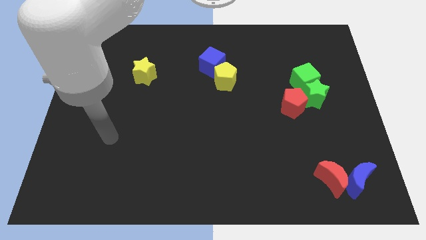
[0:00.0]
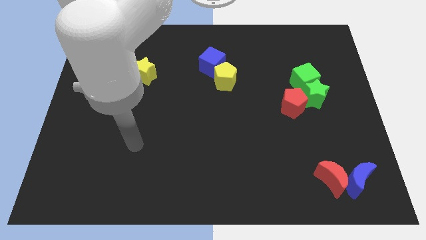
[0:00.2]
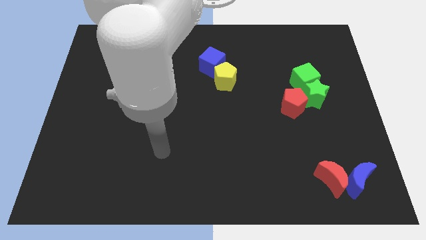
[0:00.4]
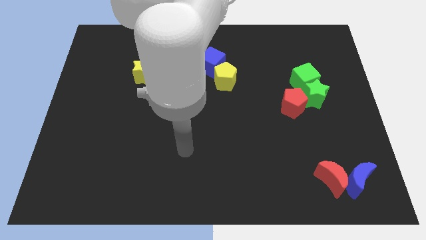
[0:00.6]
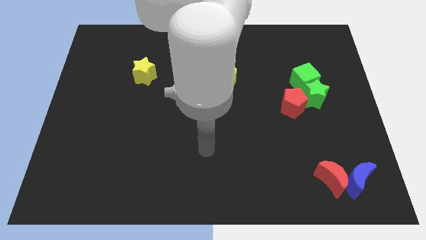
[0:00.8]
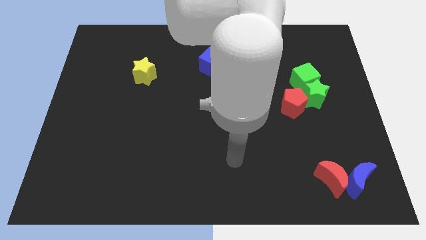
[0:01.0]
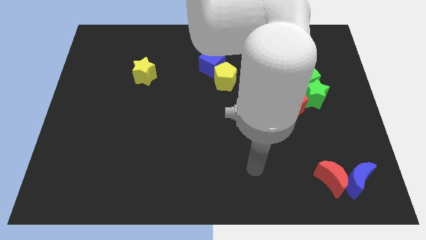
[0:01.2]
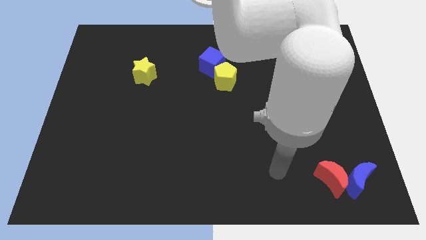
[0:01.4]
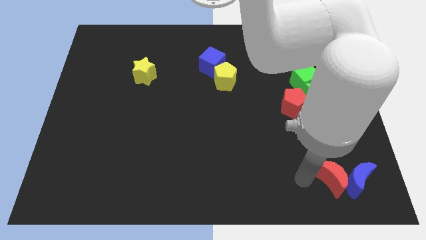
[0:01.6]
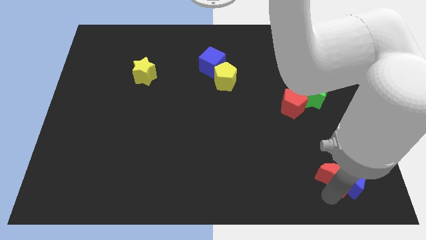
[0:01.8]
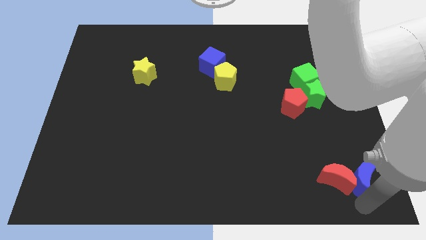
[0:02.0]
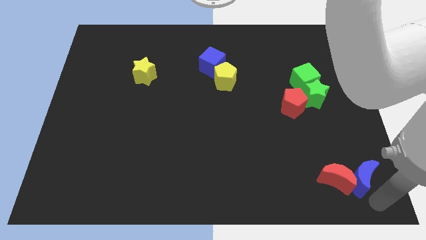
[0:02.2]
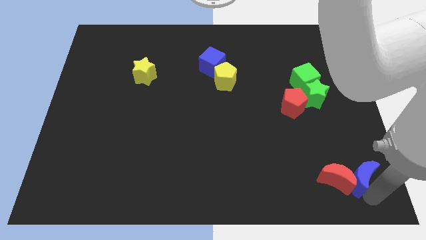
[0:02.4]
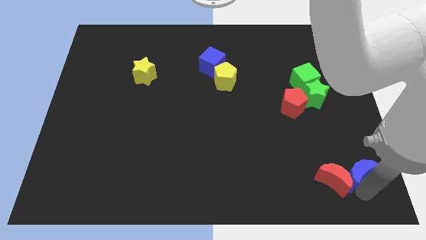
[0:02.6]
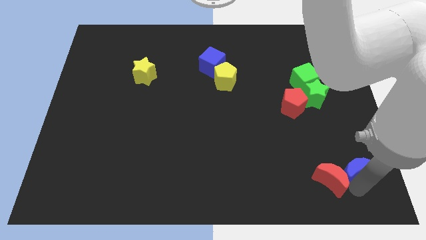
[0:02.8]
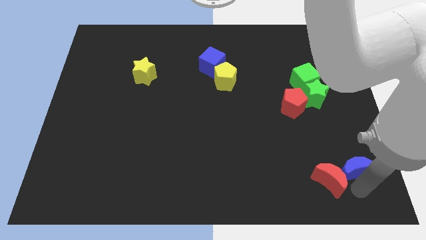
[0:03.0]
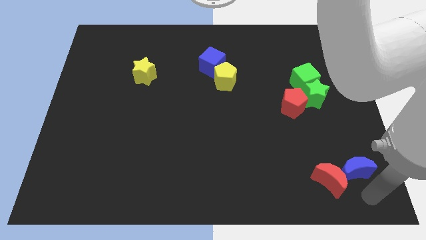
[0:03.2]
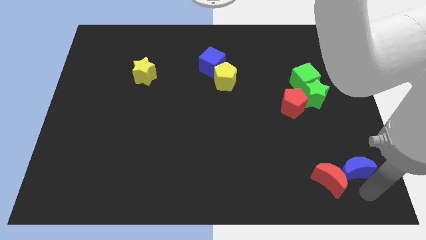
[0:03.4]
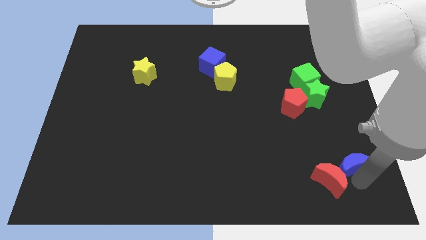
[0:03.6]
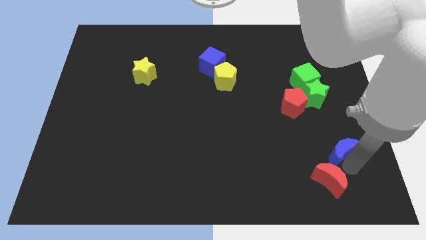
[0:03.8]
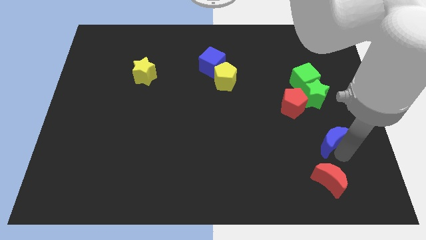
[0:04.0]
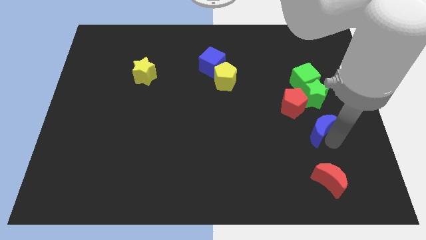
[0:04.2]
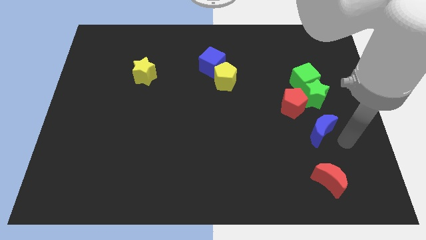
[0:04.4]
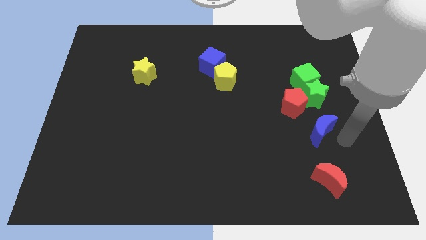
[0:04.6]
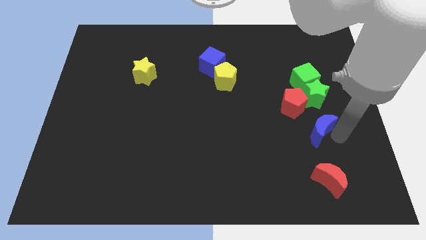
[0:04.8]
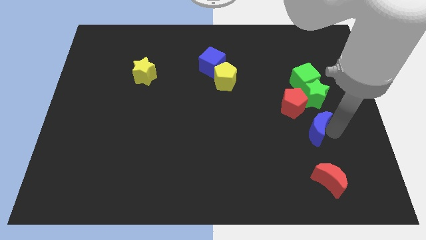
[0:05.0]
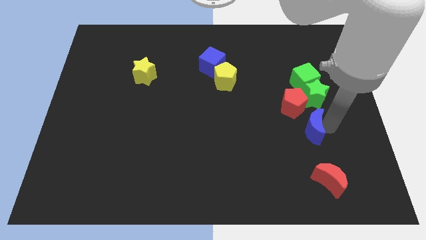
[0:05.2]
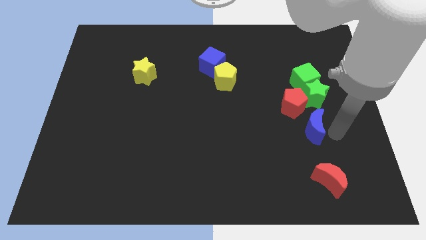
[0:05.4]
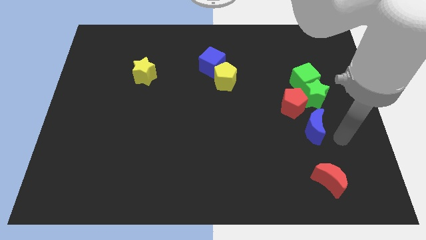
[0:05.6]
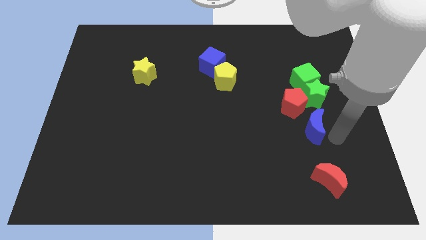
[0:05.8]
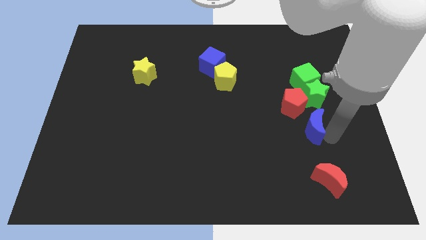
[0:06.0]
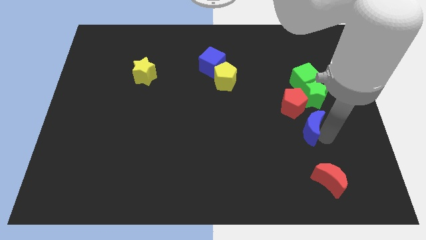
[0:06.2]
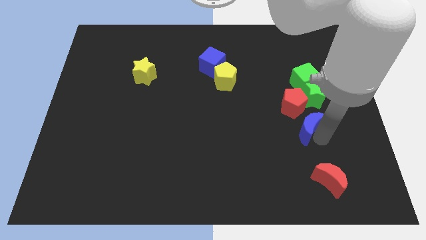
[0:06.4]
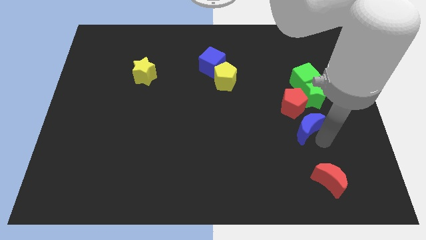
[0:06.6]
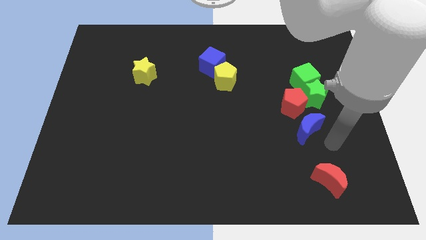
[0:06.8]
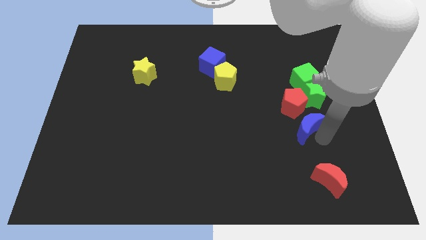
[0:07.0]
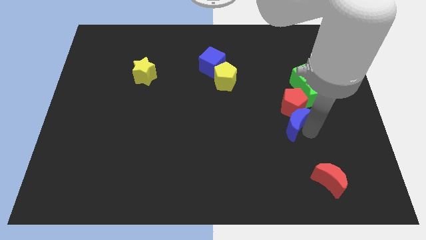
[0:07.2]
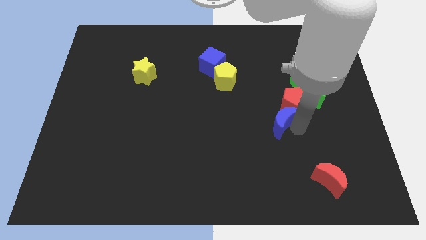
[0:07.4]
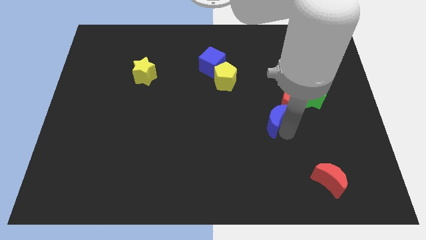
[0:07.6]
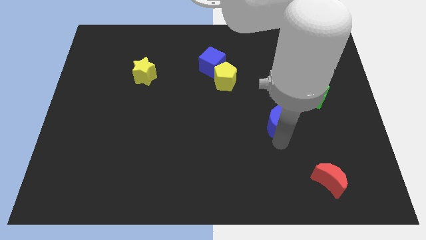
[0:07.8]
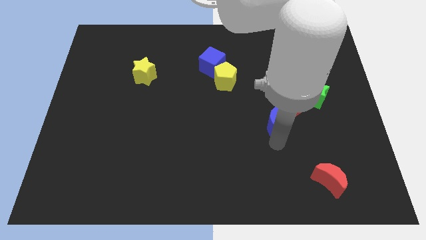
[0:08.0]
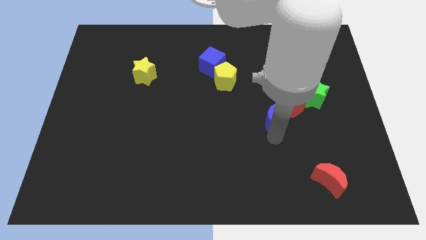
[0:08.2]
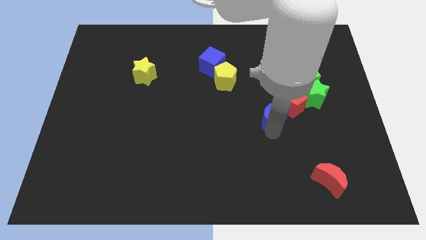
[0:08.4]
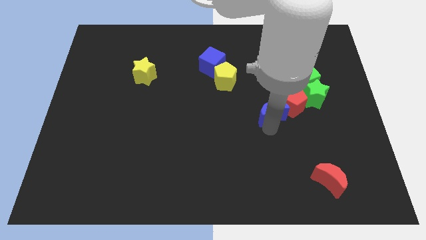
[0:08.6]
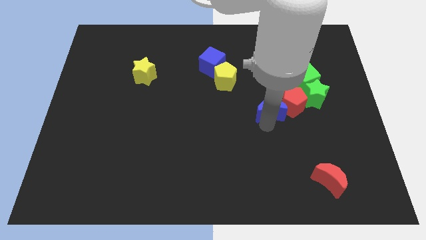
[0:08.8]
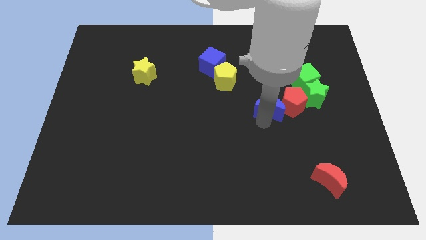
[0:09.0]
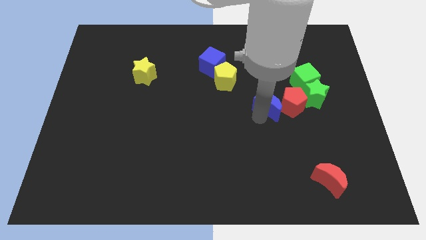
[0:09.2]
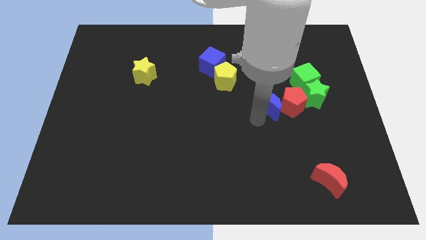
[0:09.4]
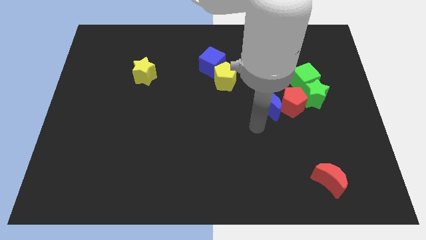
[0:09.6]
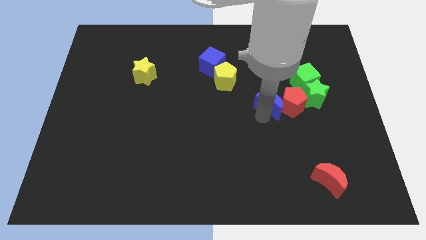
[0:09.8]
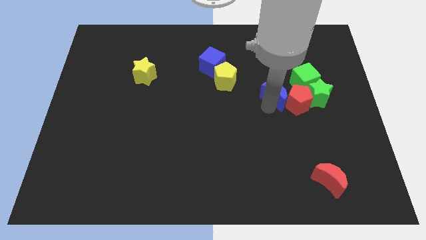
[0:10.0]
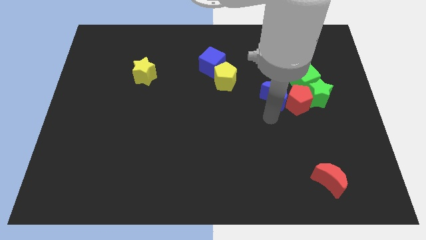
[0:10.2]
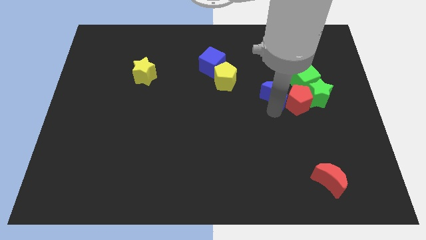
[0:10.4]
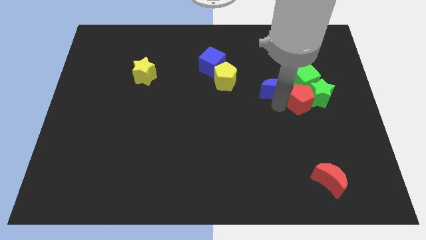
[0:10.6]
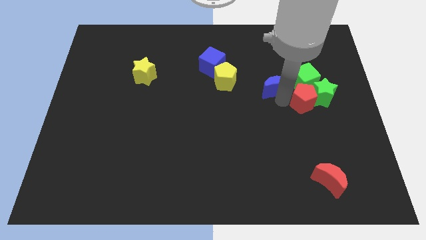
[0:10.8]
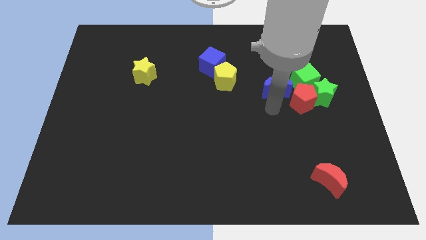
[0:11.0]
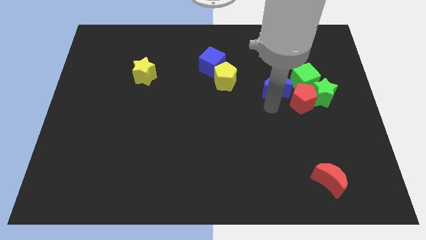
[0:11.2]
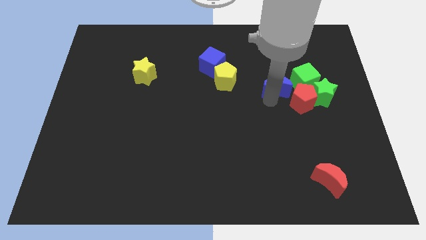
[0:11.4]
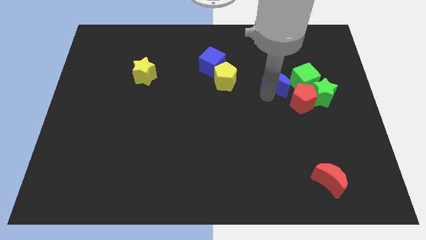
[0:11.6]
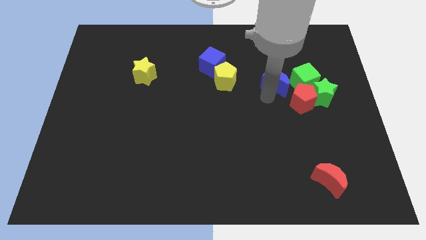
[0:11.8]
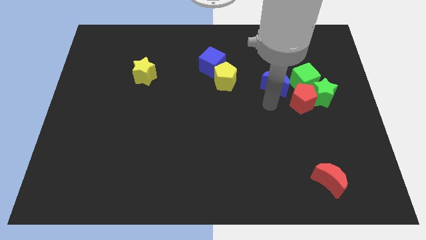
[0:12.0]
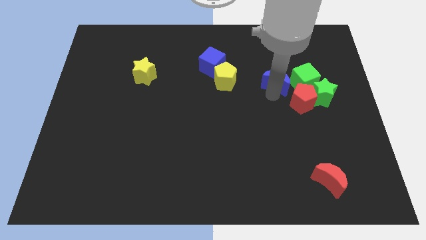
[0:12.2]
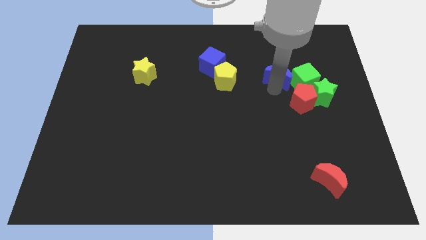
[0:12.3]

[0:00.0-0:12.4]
slide the blue moon diagonally up and to the left of the green cube

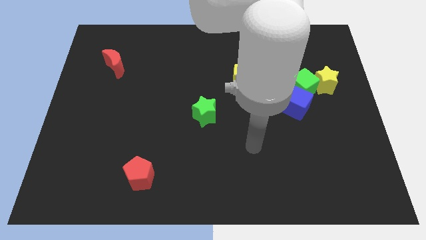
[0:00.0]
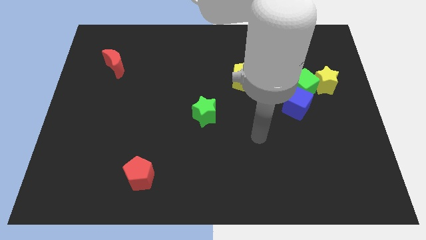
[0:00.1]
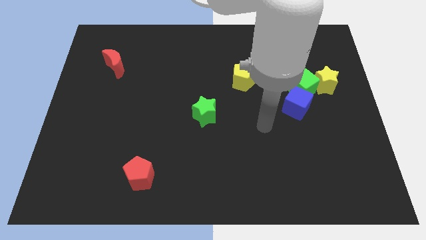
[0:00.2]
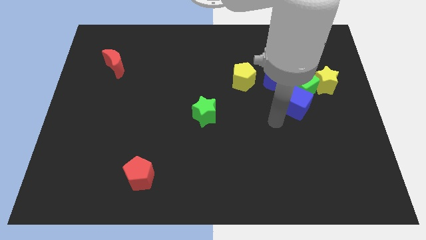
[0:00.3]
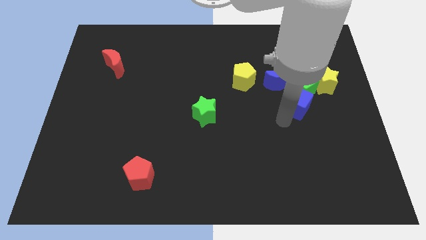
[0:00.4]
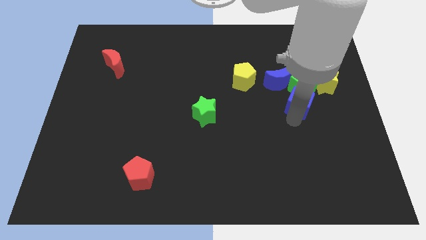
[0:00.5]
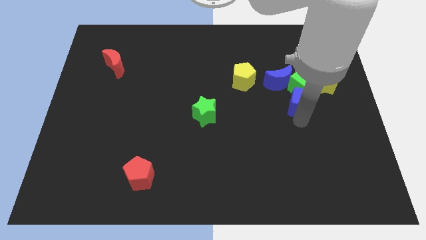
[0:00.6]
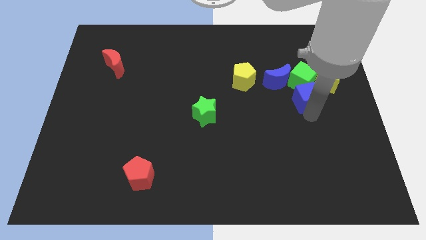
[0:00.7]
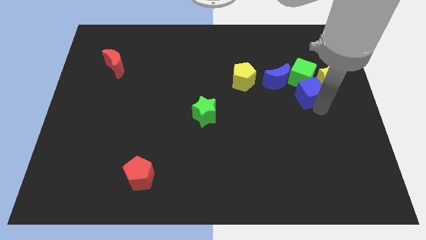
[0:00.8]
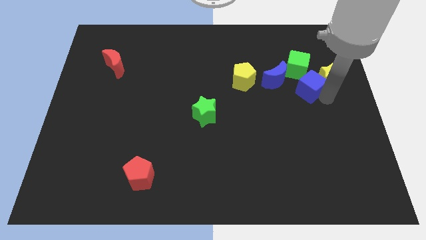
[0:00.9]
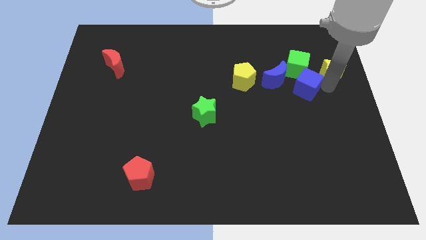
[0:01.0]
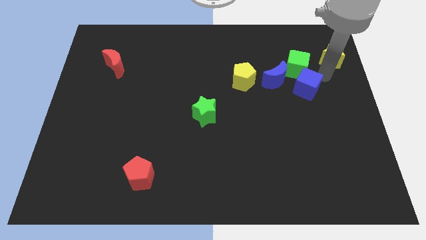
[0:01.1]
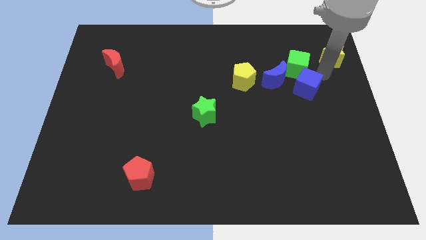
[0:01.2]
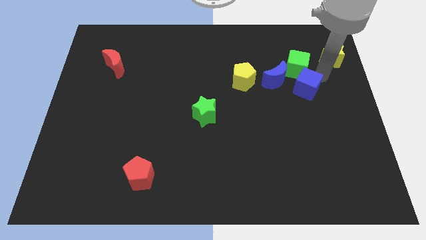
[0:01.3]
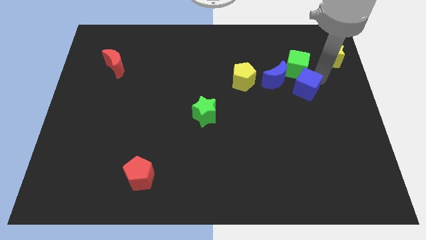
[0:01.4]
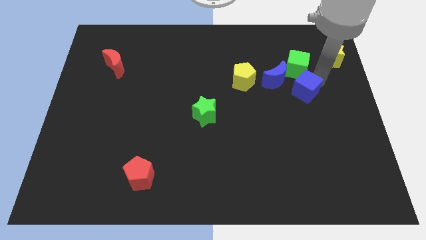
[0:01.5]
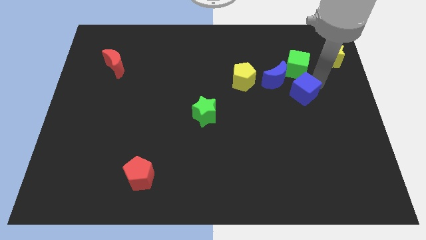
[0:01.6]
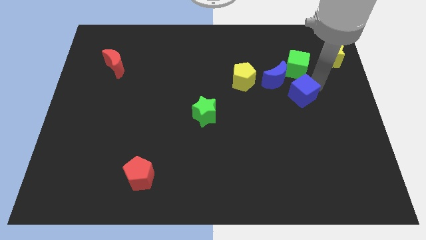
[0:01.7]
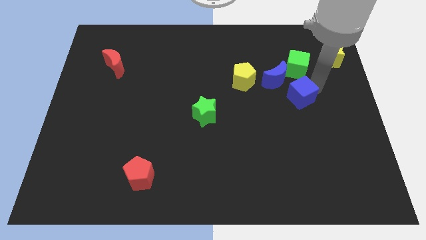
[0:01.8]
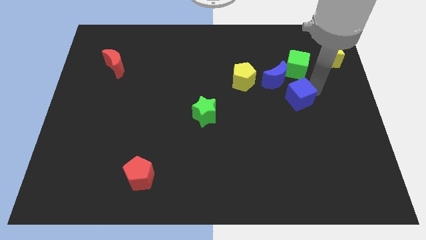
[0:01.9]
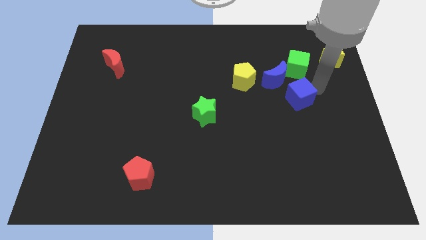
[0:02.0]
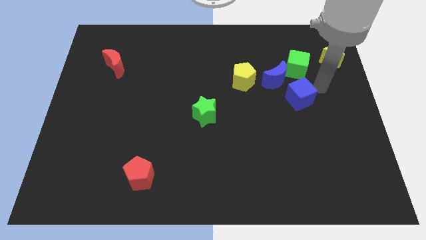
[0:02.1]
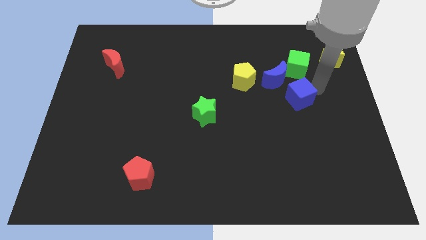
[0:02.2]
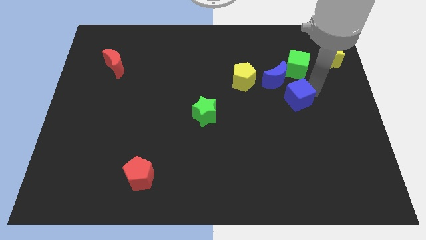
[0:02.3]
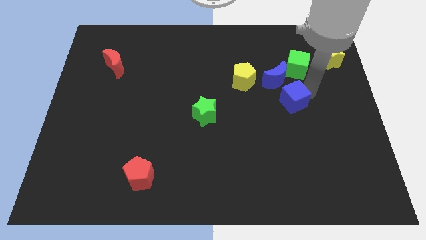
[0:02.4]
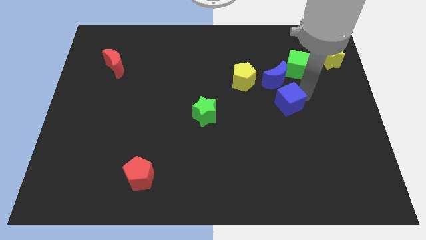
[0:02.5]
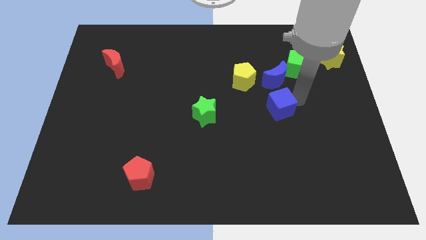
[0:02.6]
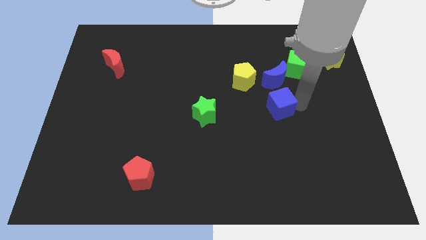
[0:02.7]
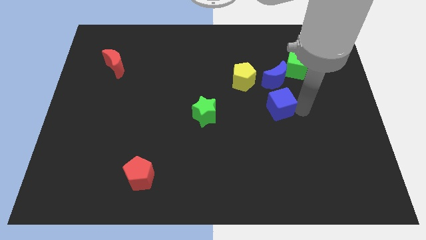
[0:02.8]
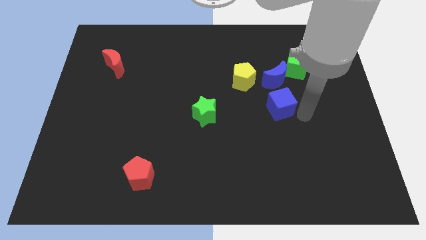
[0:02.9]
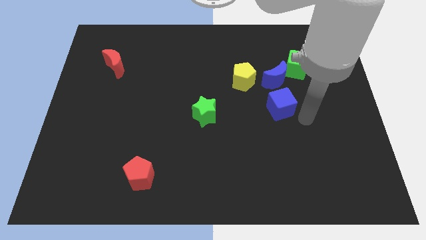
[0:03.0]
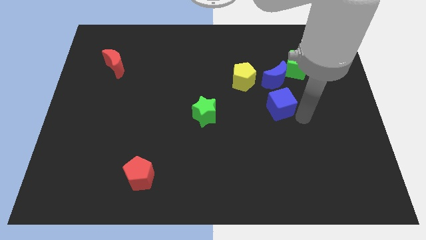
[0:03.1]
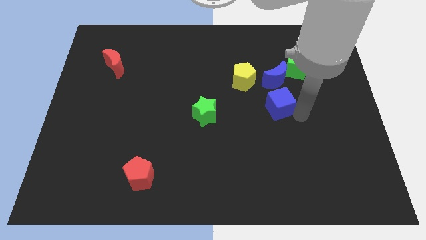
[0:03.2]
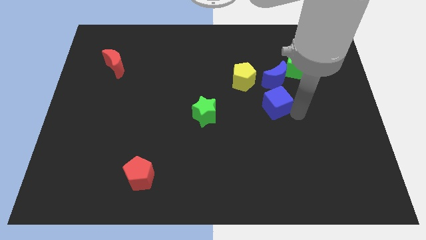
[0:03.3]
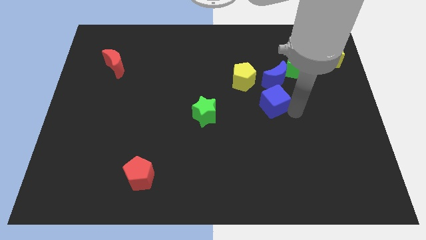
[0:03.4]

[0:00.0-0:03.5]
push the blue cube to the bottom left of the blue moon
